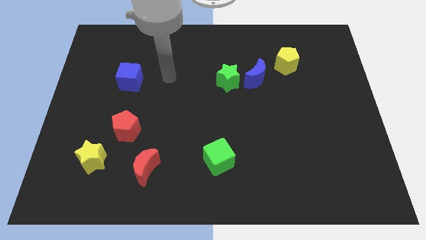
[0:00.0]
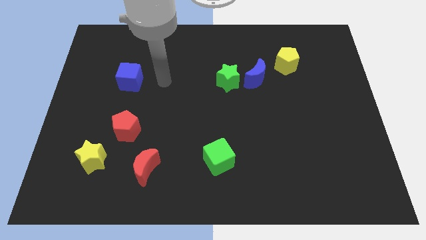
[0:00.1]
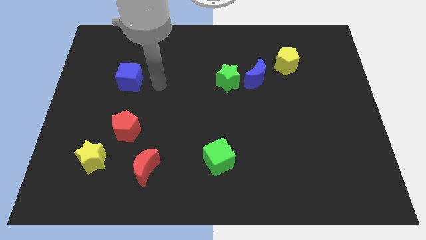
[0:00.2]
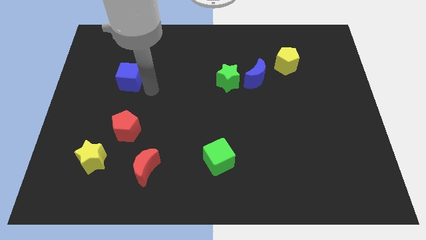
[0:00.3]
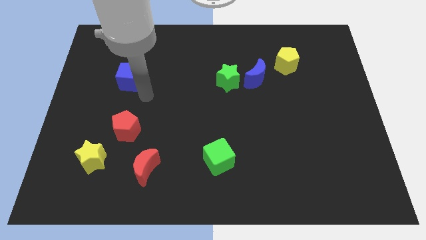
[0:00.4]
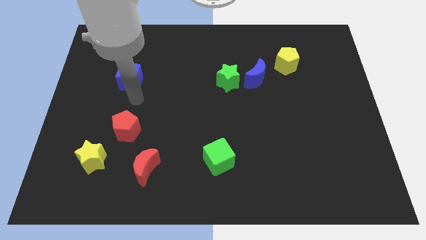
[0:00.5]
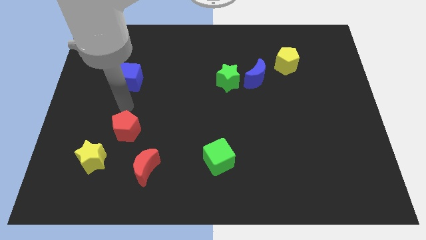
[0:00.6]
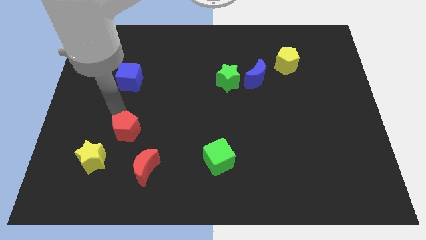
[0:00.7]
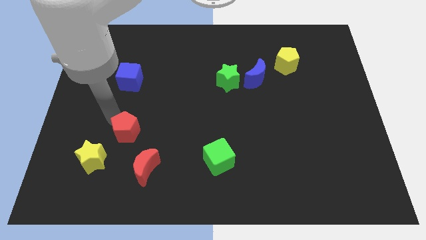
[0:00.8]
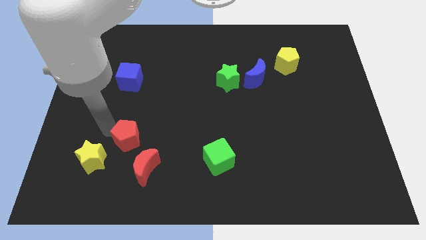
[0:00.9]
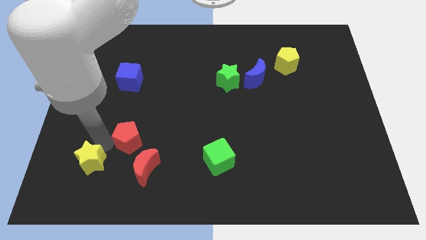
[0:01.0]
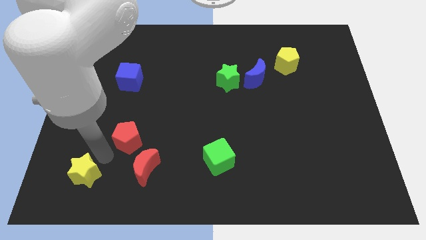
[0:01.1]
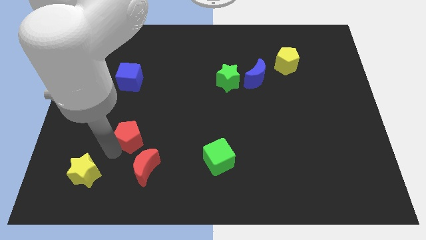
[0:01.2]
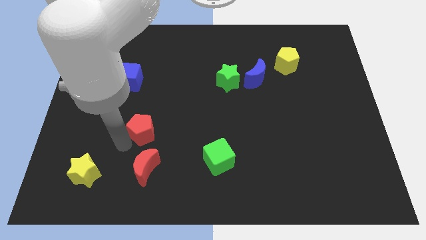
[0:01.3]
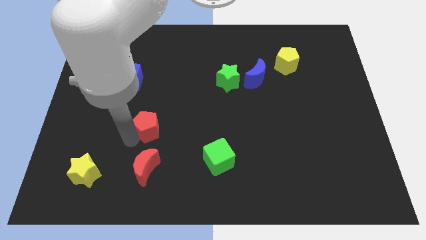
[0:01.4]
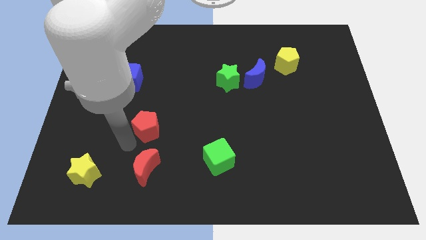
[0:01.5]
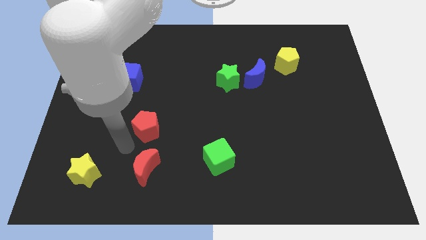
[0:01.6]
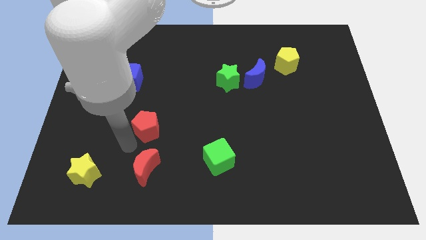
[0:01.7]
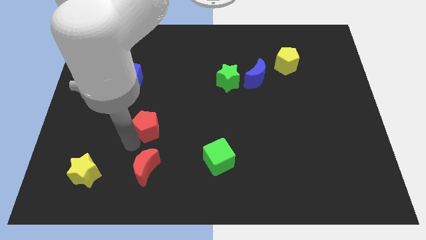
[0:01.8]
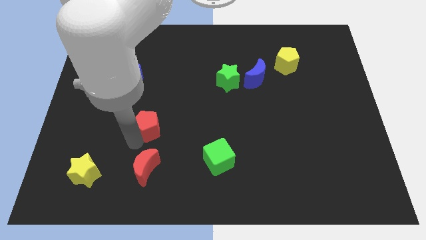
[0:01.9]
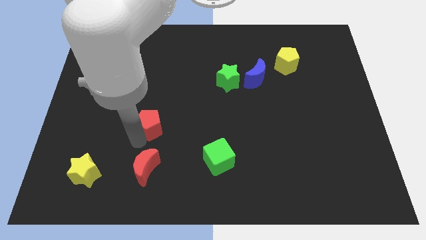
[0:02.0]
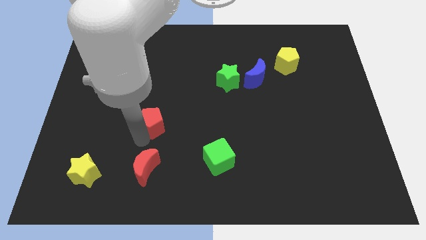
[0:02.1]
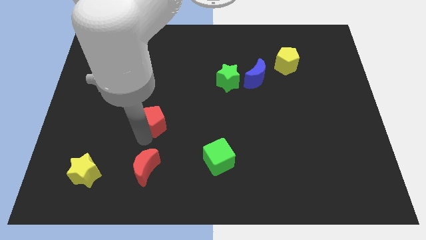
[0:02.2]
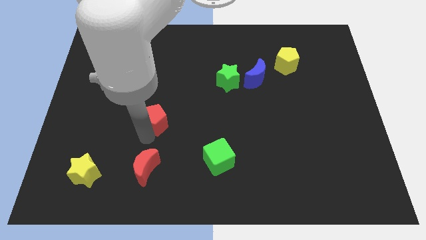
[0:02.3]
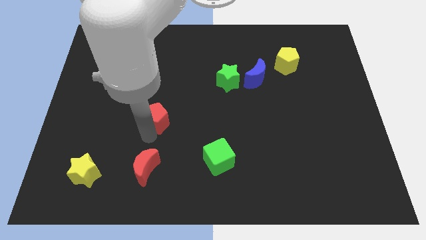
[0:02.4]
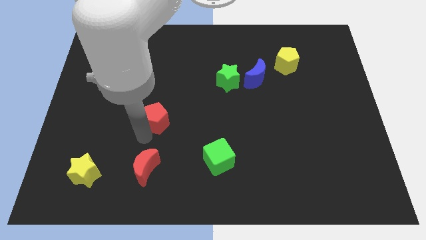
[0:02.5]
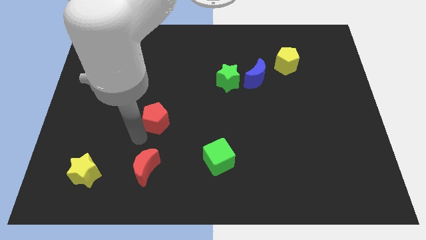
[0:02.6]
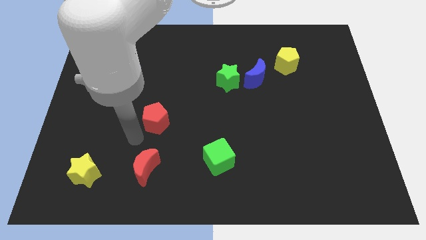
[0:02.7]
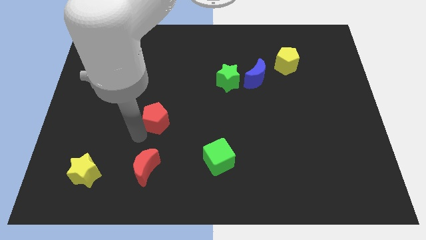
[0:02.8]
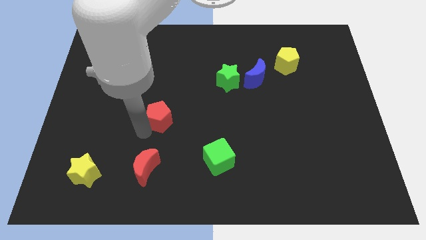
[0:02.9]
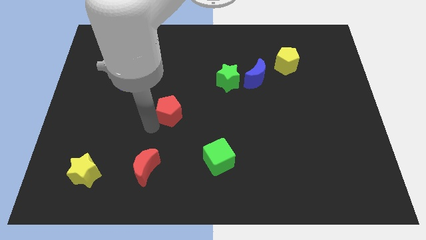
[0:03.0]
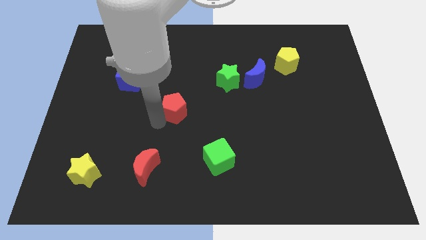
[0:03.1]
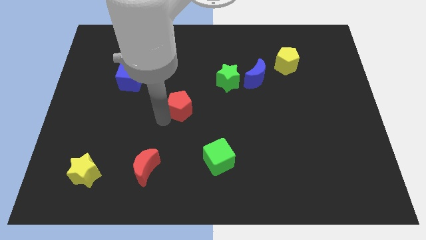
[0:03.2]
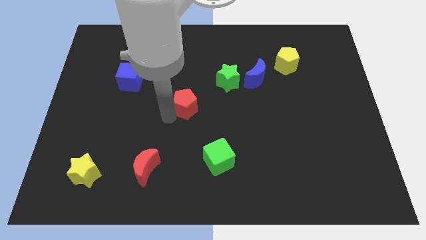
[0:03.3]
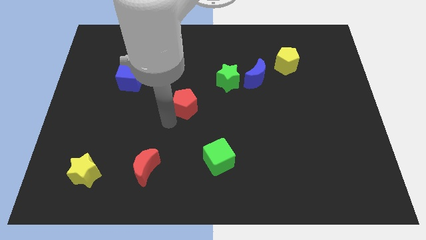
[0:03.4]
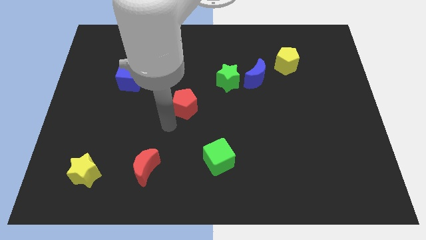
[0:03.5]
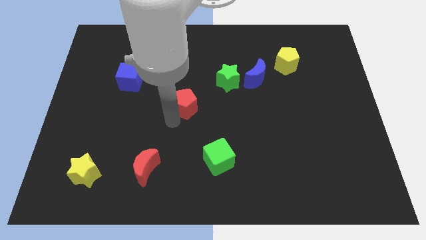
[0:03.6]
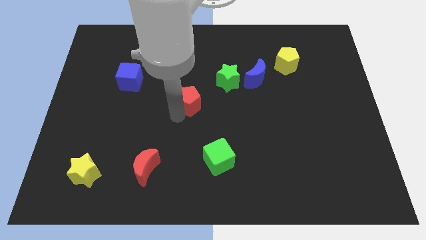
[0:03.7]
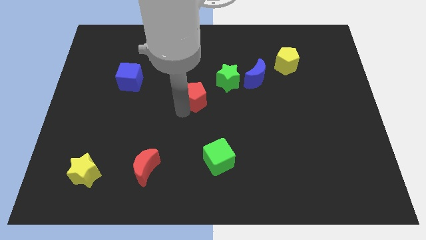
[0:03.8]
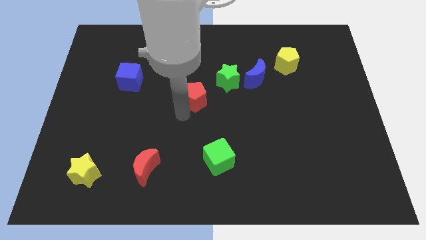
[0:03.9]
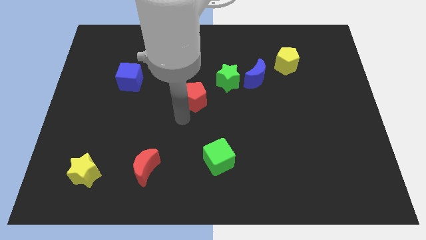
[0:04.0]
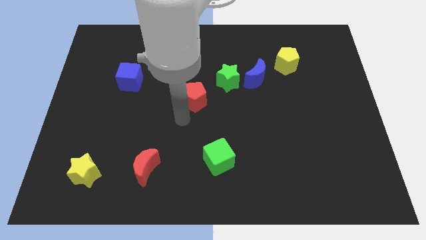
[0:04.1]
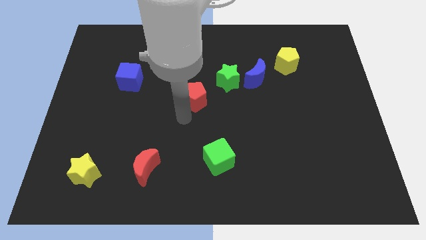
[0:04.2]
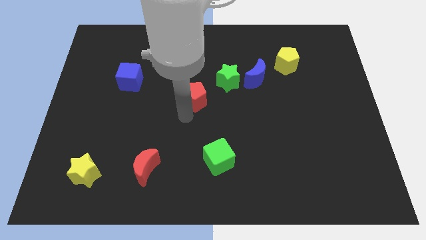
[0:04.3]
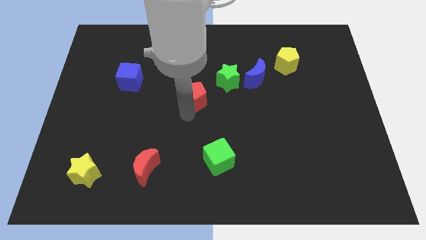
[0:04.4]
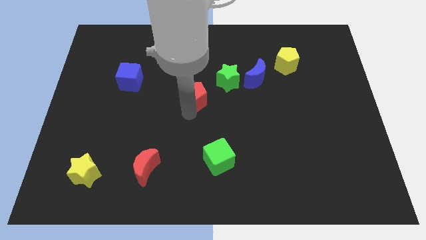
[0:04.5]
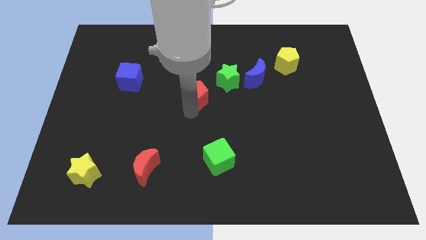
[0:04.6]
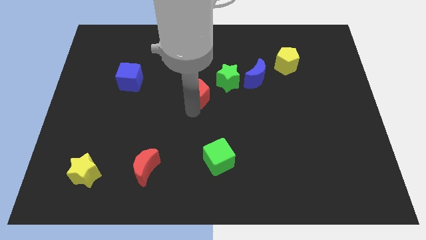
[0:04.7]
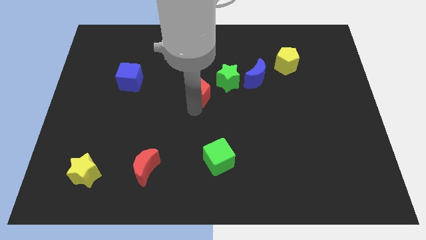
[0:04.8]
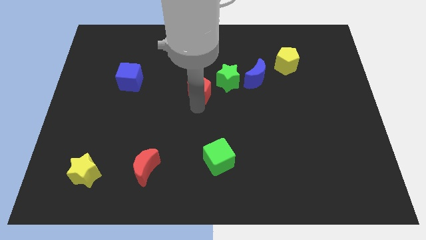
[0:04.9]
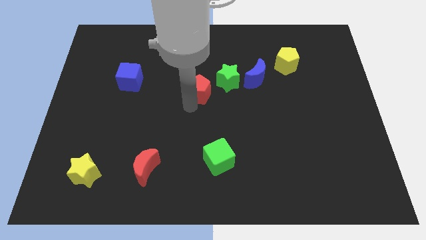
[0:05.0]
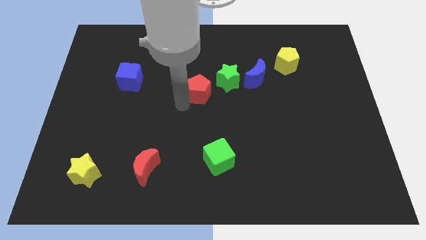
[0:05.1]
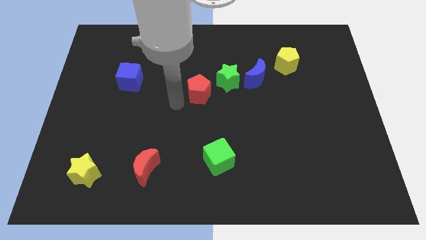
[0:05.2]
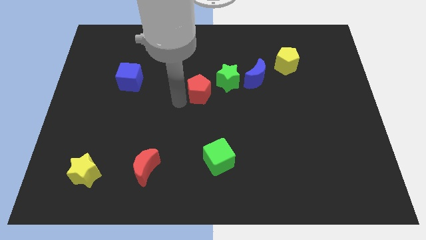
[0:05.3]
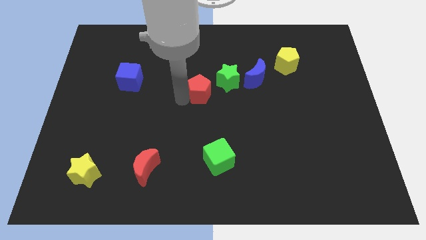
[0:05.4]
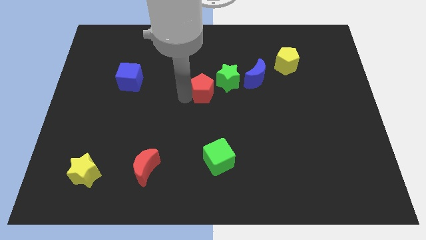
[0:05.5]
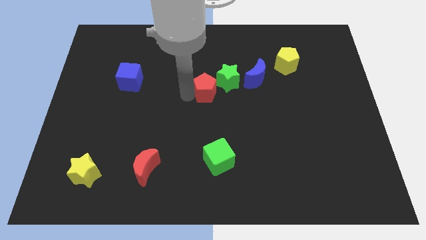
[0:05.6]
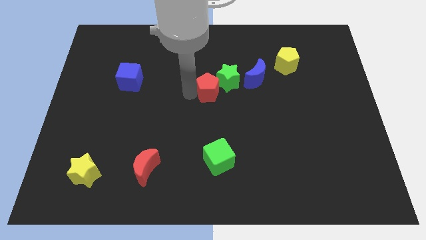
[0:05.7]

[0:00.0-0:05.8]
push the red pentagon close to the green star

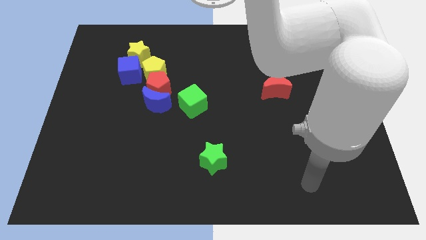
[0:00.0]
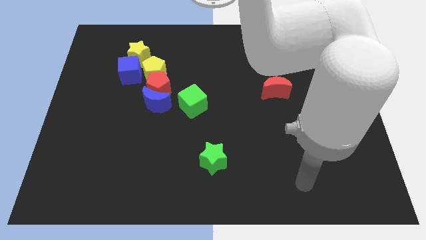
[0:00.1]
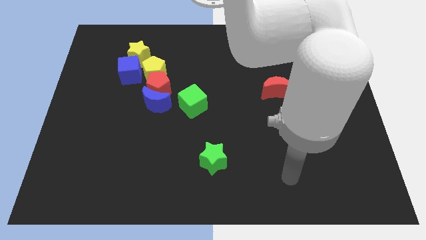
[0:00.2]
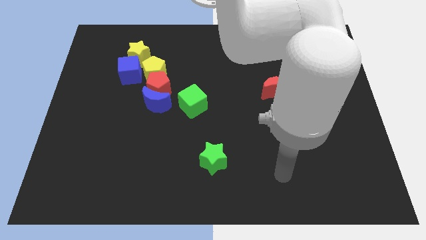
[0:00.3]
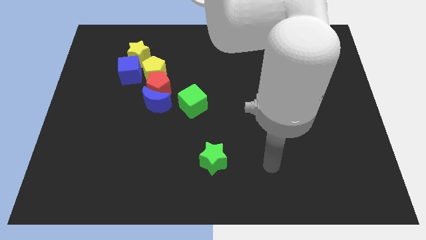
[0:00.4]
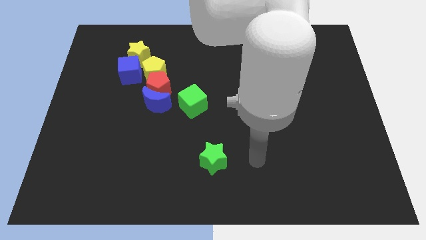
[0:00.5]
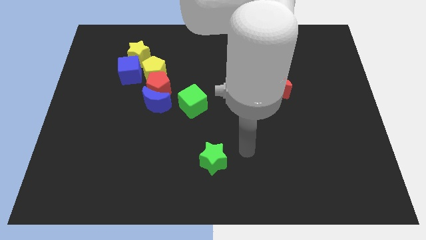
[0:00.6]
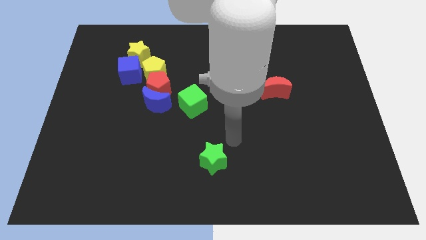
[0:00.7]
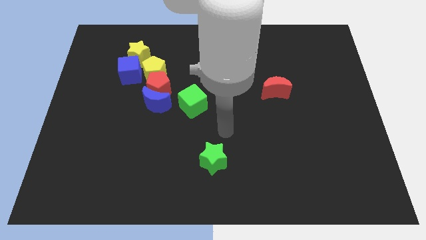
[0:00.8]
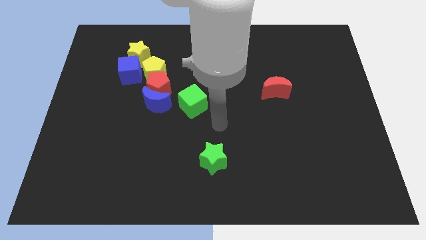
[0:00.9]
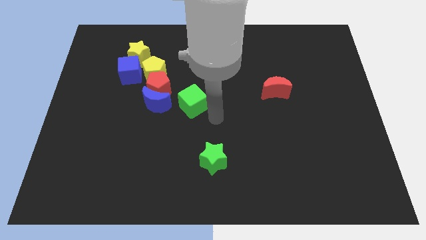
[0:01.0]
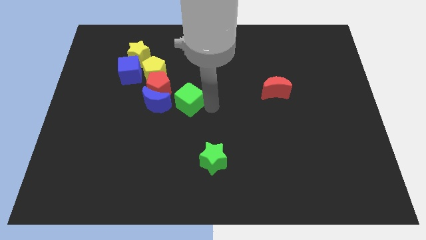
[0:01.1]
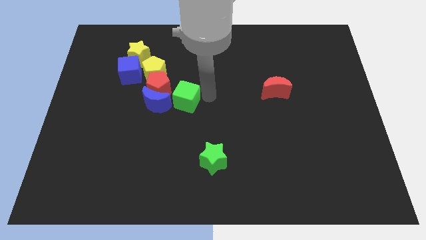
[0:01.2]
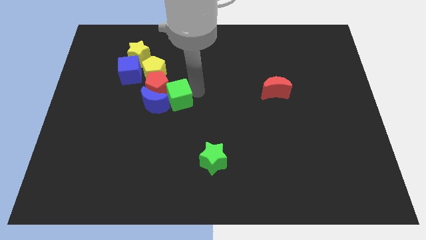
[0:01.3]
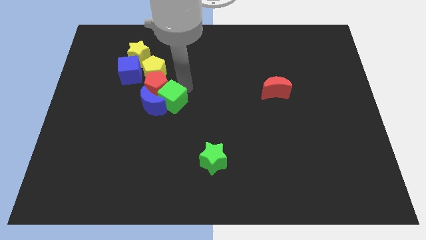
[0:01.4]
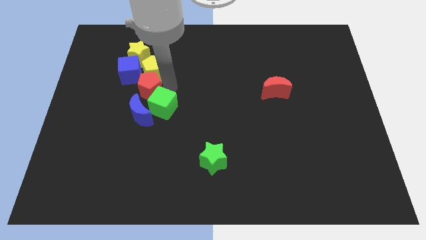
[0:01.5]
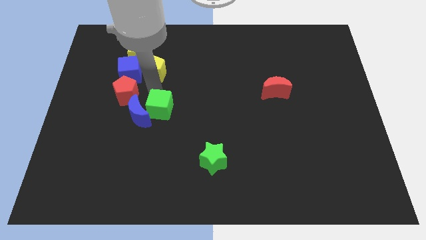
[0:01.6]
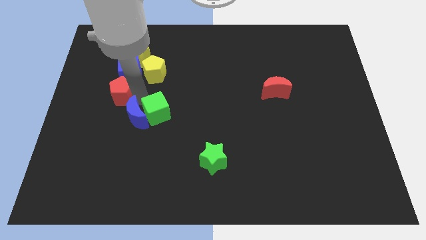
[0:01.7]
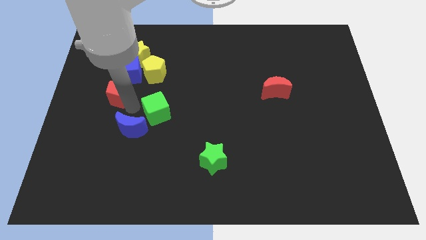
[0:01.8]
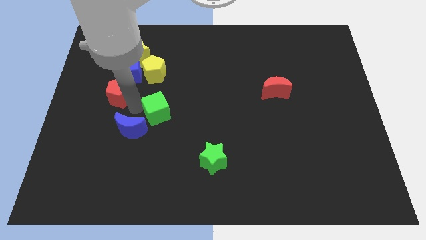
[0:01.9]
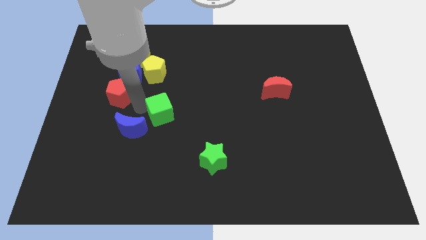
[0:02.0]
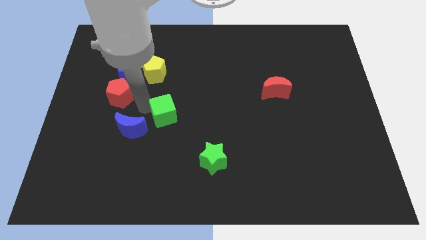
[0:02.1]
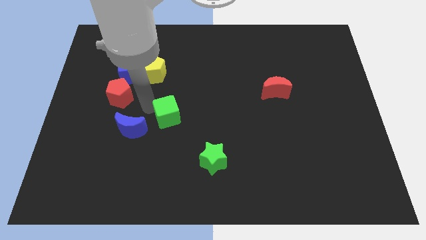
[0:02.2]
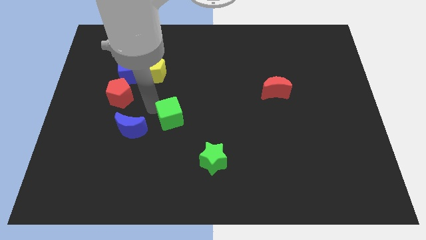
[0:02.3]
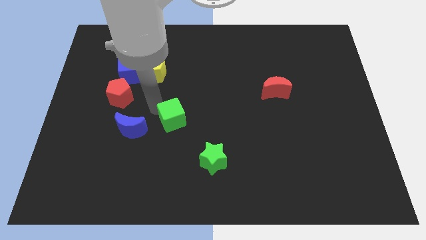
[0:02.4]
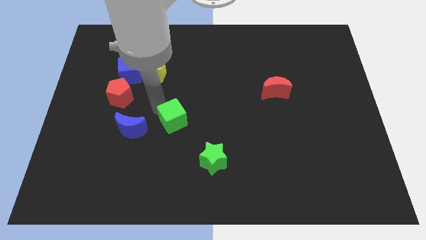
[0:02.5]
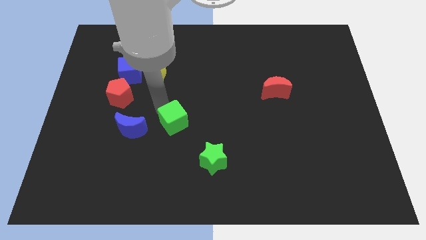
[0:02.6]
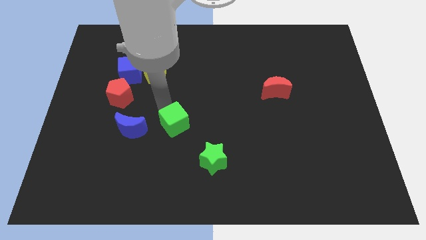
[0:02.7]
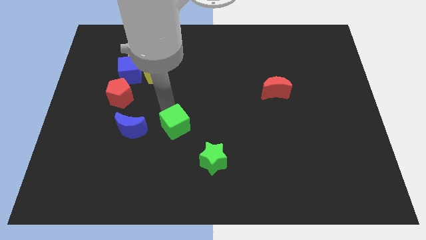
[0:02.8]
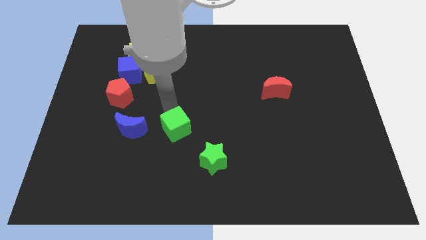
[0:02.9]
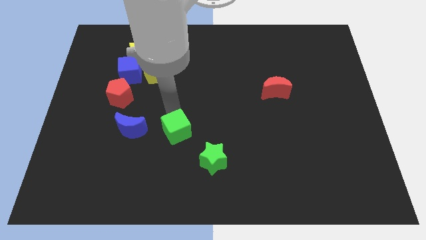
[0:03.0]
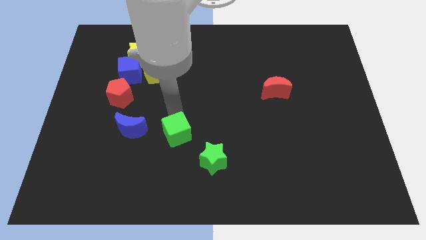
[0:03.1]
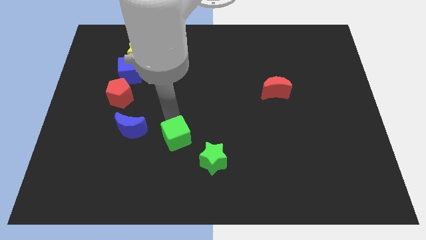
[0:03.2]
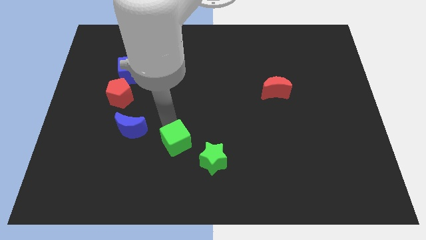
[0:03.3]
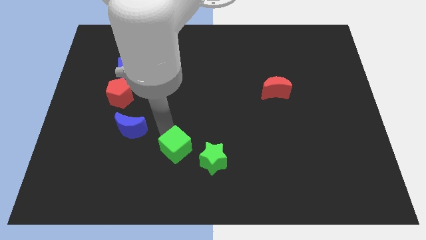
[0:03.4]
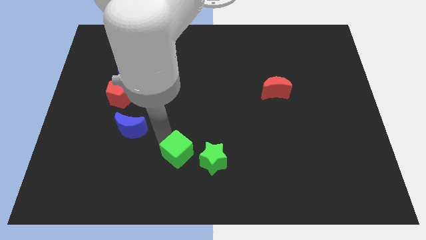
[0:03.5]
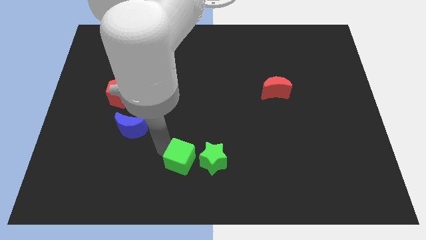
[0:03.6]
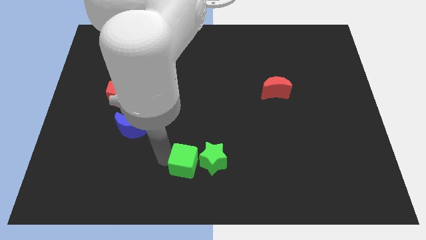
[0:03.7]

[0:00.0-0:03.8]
push the green cube next to the green star
